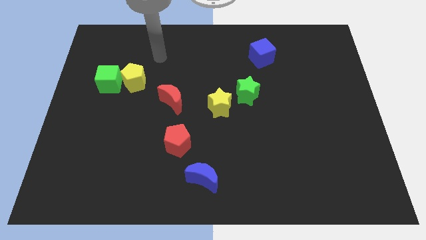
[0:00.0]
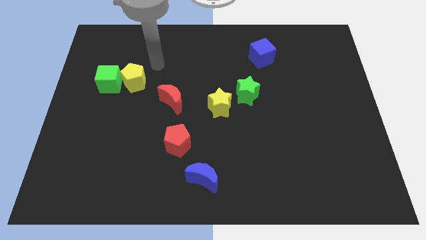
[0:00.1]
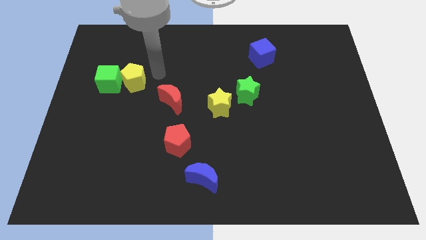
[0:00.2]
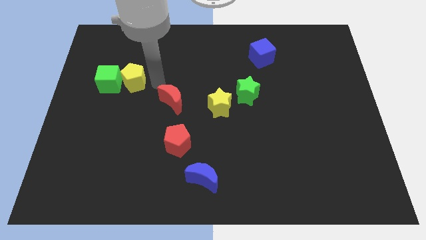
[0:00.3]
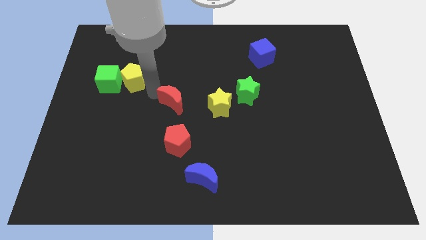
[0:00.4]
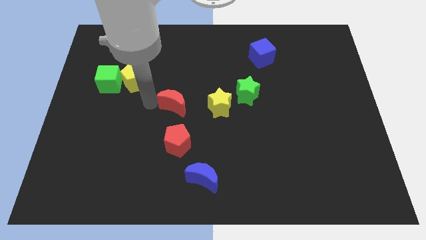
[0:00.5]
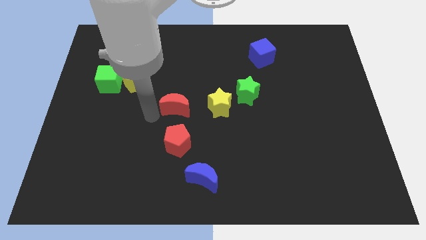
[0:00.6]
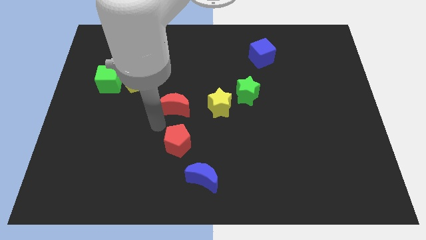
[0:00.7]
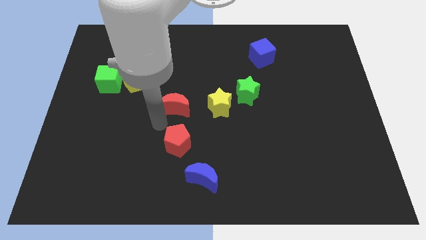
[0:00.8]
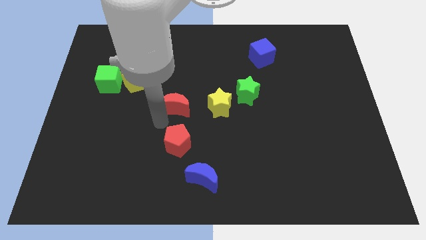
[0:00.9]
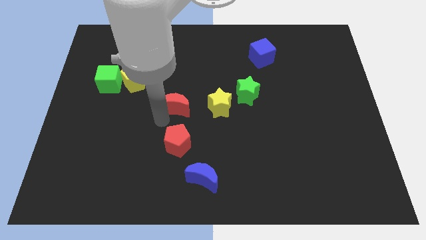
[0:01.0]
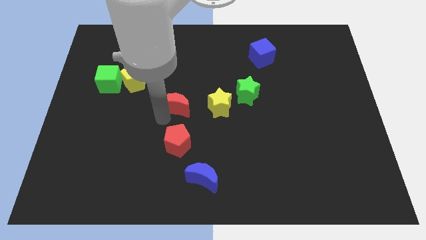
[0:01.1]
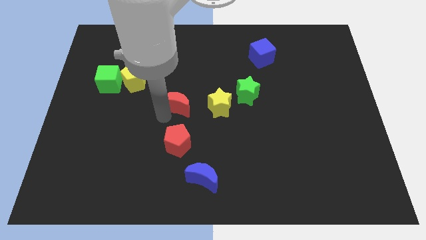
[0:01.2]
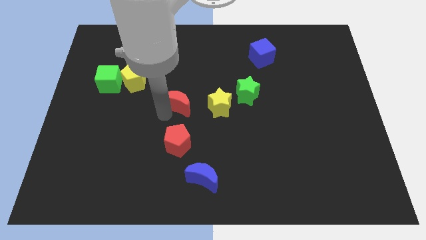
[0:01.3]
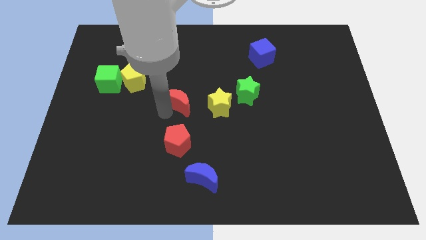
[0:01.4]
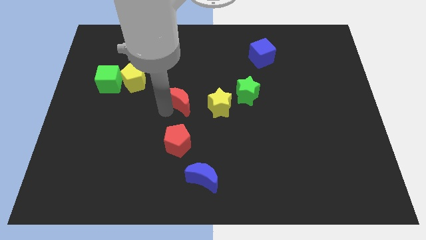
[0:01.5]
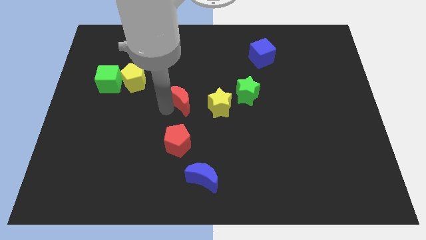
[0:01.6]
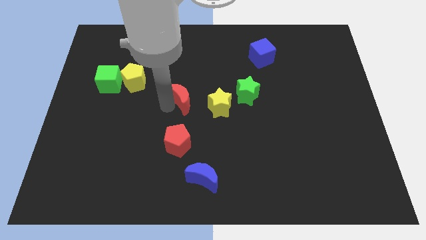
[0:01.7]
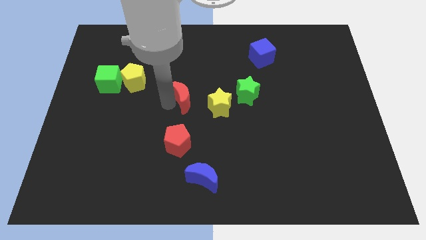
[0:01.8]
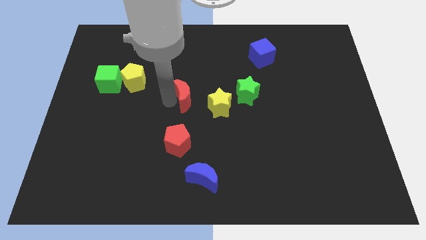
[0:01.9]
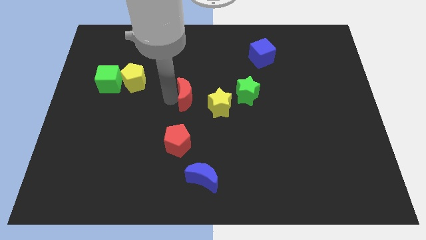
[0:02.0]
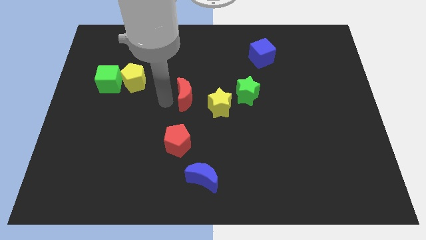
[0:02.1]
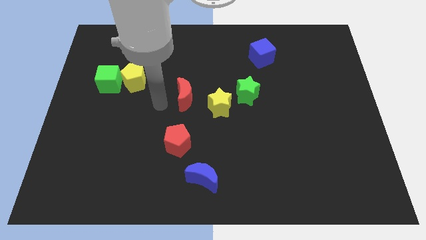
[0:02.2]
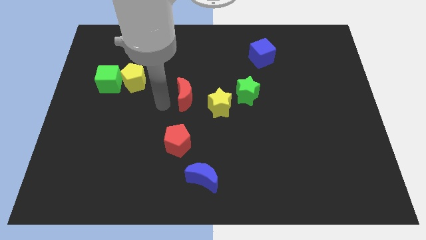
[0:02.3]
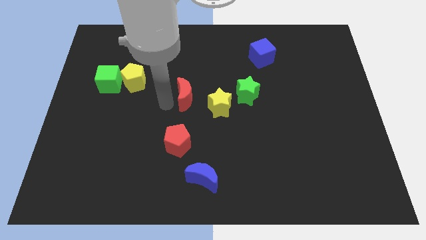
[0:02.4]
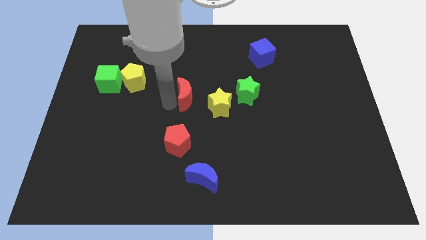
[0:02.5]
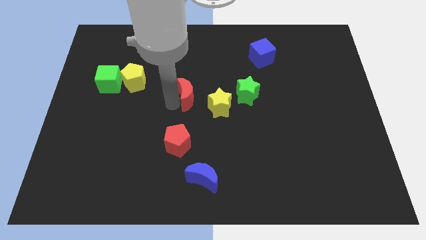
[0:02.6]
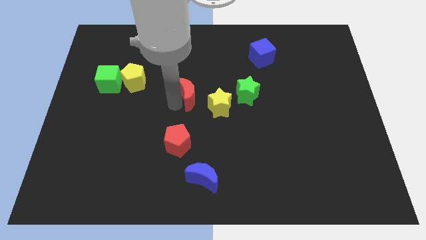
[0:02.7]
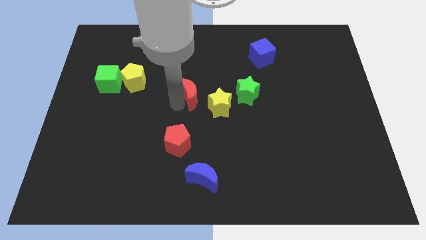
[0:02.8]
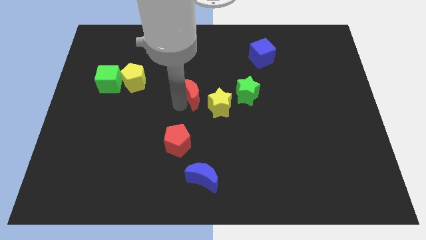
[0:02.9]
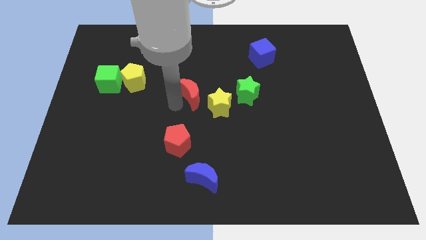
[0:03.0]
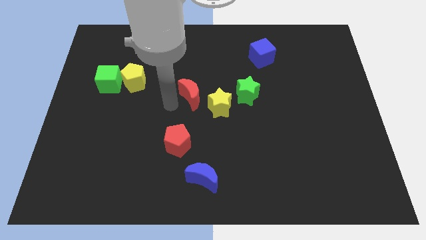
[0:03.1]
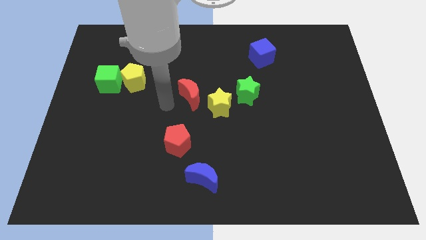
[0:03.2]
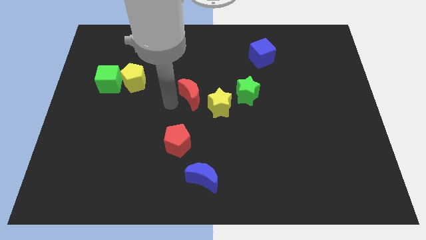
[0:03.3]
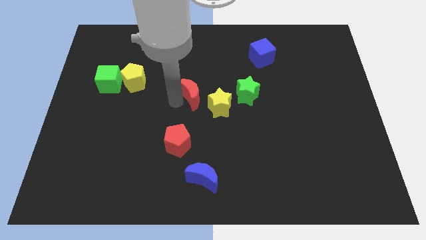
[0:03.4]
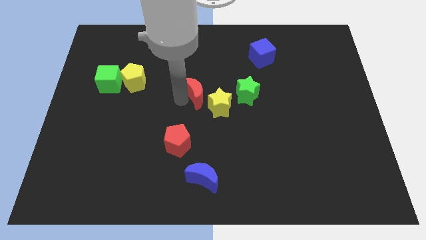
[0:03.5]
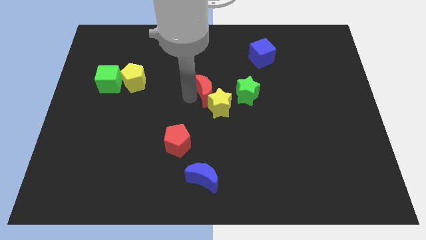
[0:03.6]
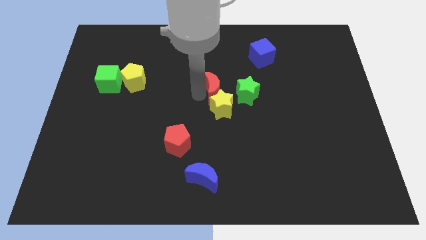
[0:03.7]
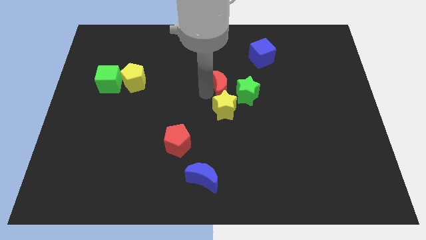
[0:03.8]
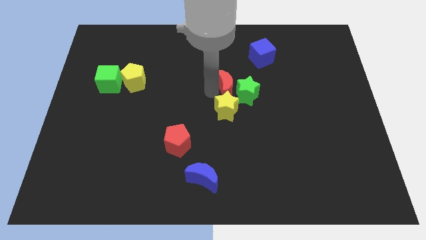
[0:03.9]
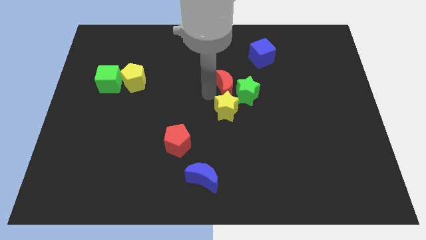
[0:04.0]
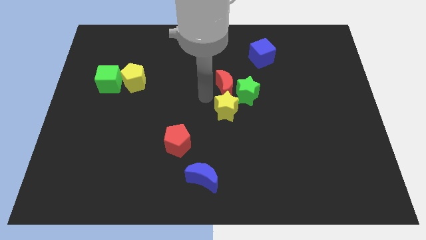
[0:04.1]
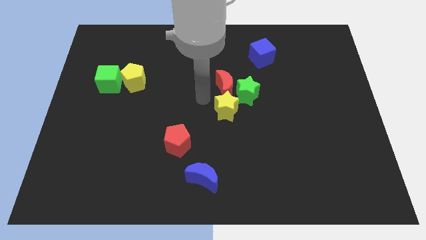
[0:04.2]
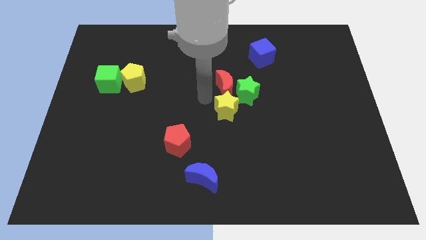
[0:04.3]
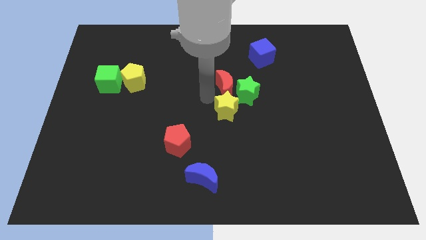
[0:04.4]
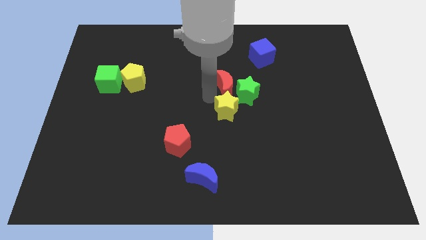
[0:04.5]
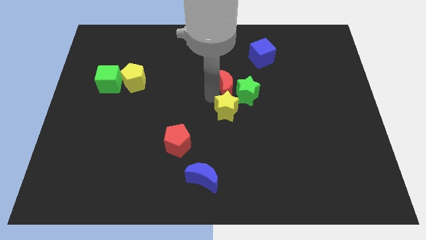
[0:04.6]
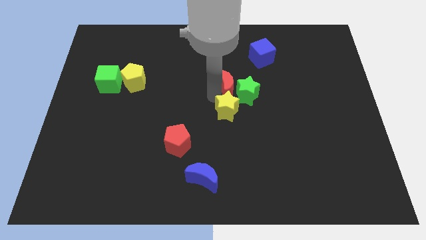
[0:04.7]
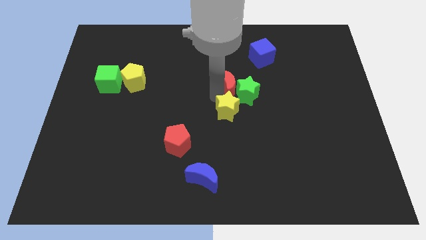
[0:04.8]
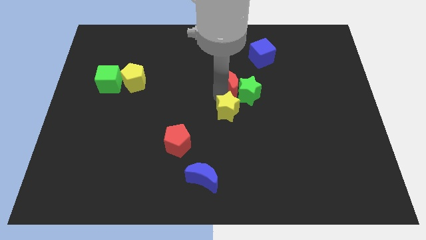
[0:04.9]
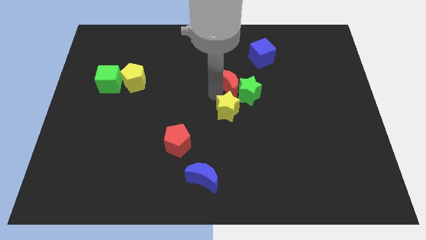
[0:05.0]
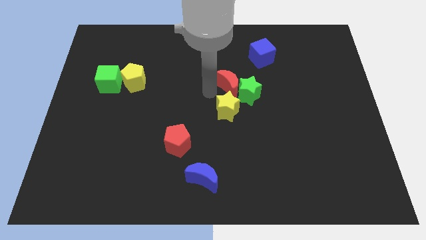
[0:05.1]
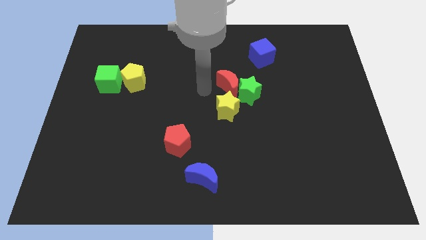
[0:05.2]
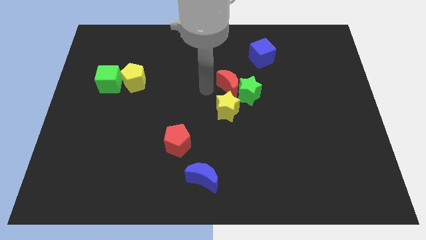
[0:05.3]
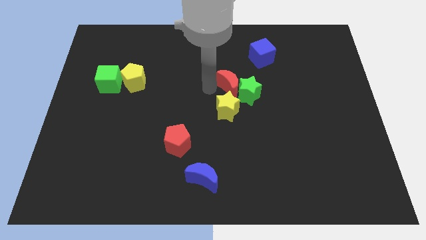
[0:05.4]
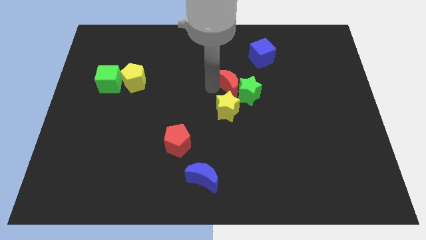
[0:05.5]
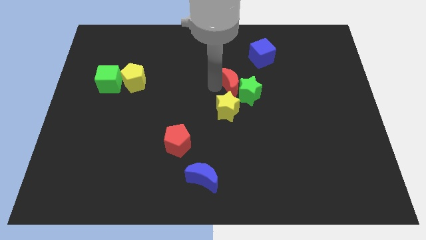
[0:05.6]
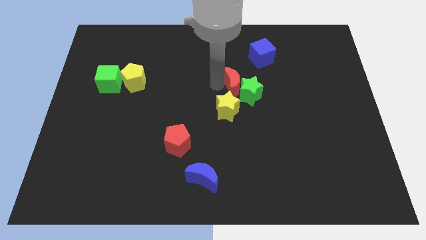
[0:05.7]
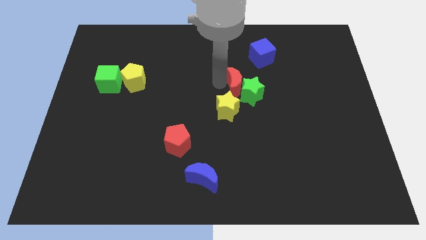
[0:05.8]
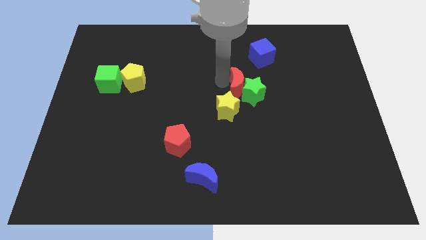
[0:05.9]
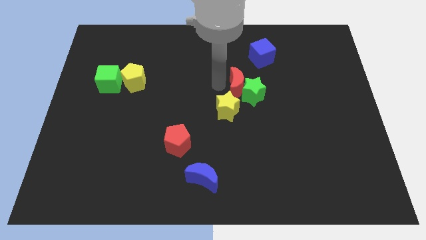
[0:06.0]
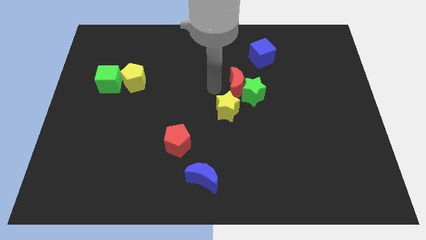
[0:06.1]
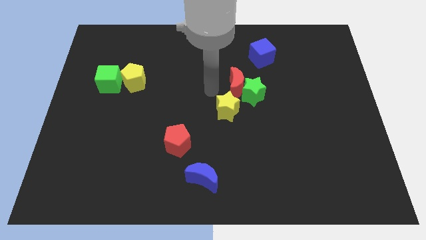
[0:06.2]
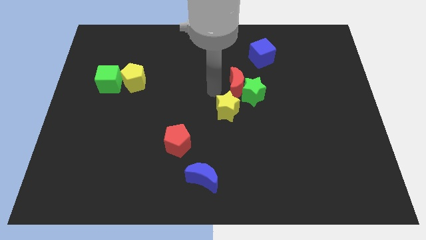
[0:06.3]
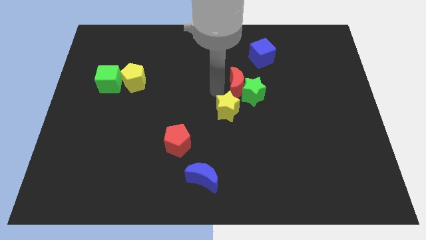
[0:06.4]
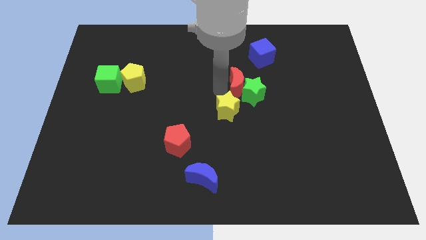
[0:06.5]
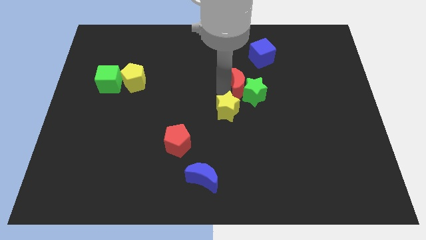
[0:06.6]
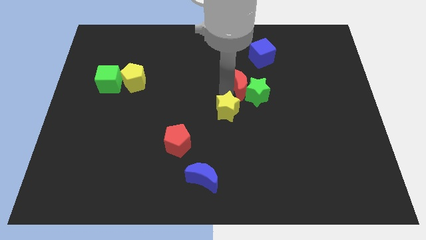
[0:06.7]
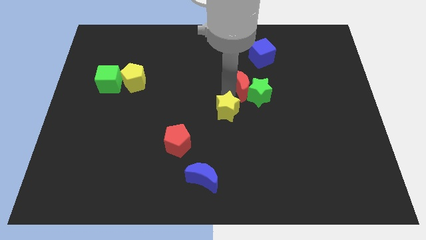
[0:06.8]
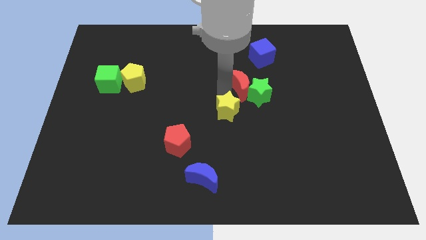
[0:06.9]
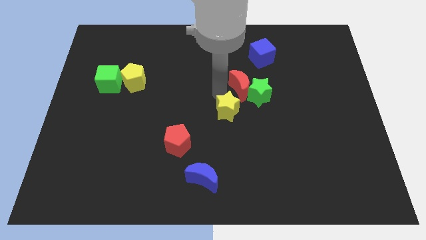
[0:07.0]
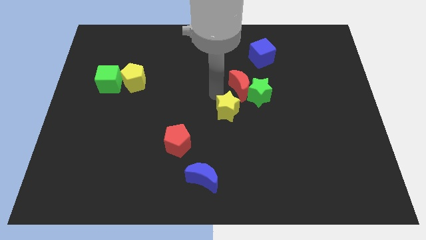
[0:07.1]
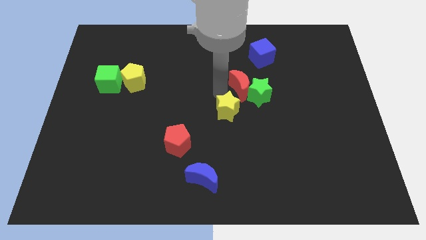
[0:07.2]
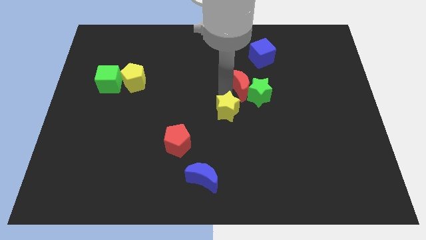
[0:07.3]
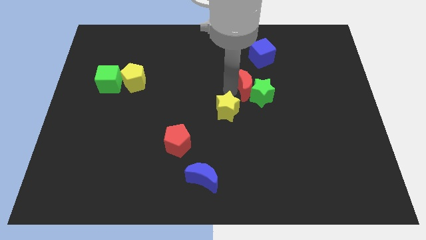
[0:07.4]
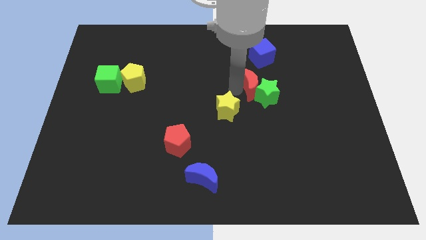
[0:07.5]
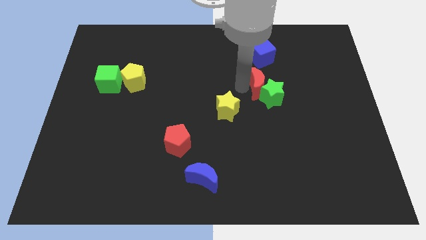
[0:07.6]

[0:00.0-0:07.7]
push the red moon to the right
